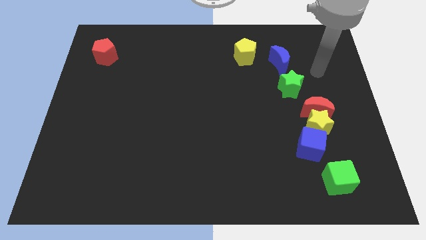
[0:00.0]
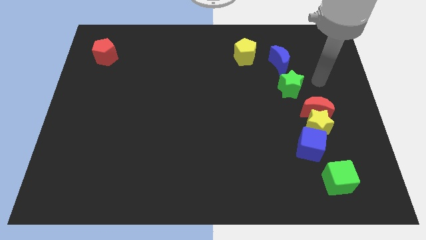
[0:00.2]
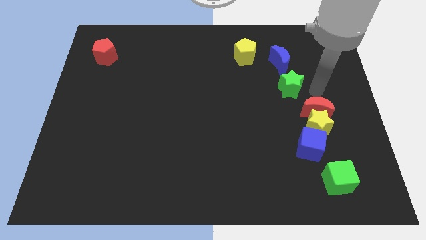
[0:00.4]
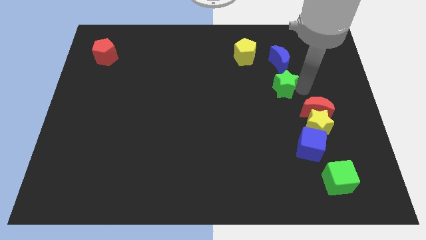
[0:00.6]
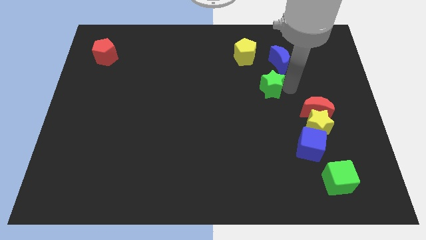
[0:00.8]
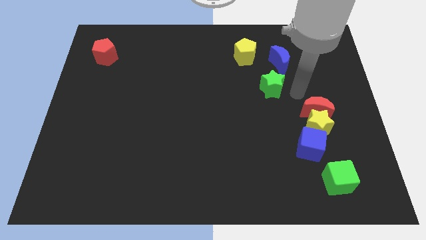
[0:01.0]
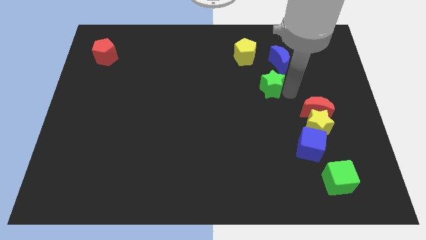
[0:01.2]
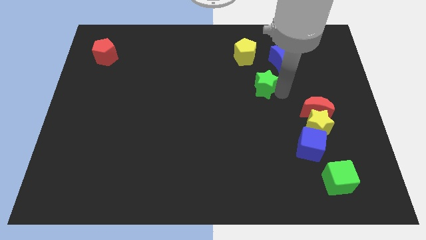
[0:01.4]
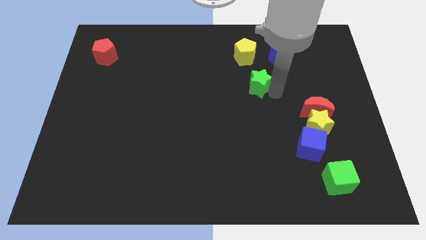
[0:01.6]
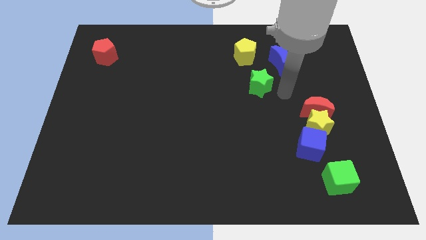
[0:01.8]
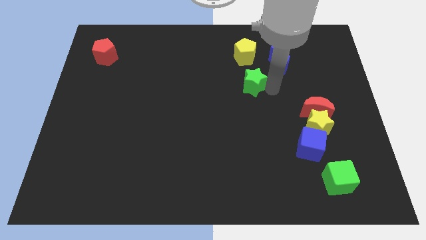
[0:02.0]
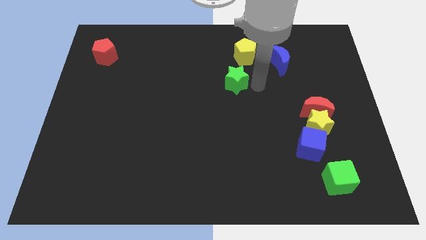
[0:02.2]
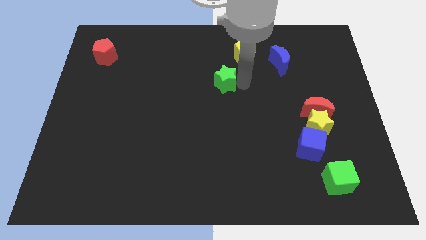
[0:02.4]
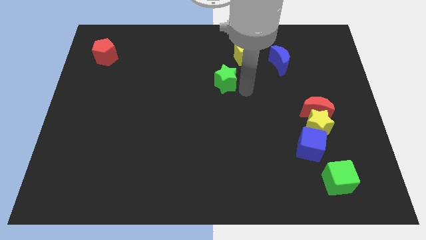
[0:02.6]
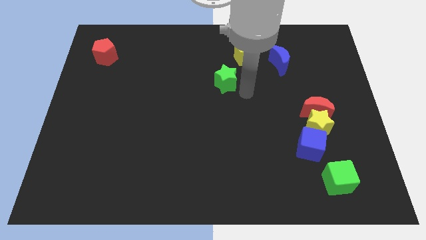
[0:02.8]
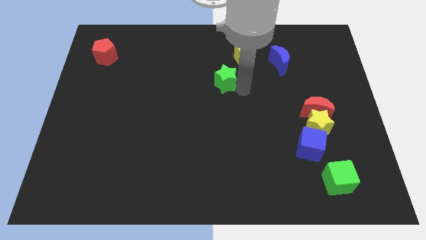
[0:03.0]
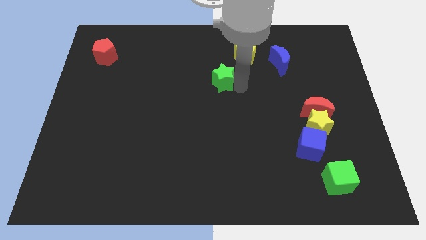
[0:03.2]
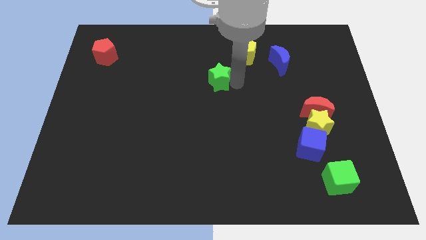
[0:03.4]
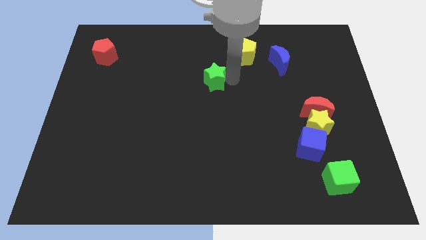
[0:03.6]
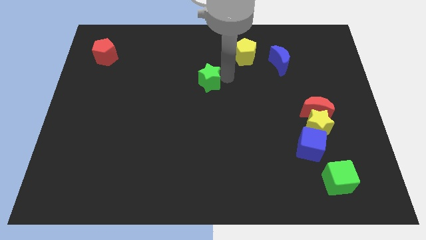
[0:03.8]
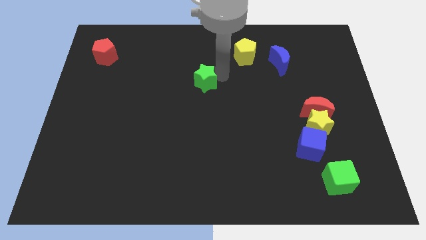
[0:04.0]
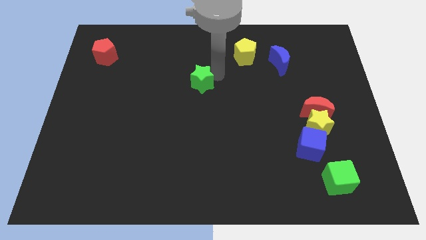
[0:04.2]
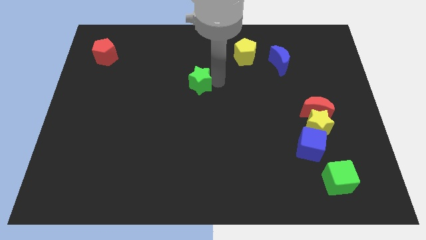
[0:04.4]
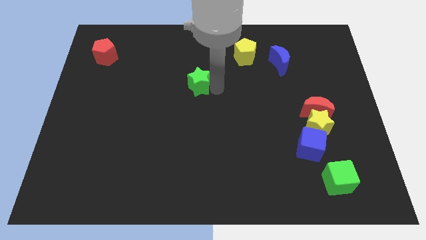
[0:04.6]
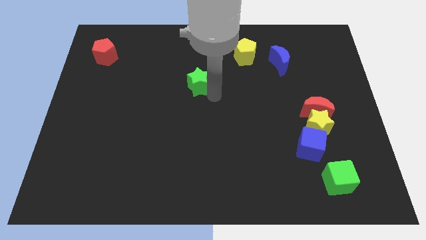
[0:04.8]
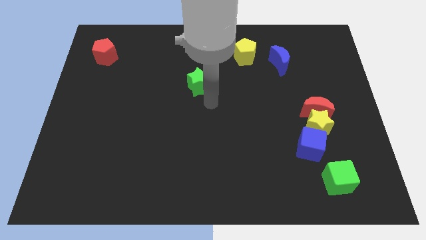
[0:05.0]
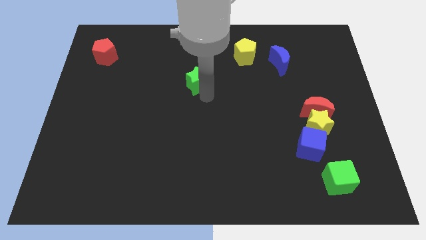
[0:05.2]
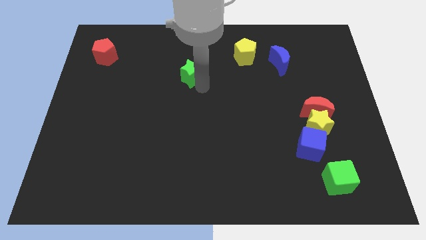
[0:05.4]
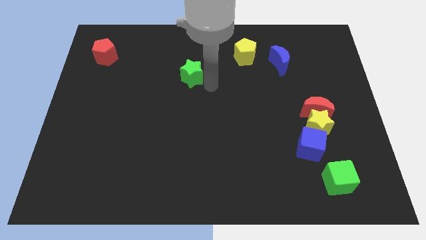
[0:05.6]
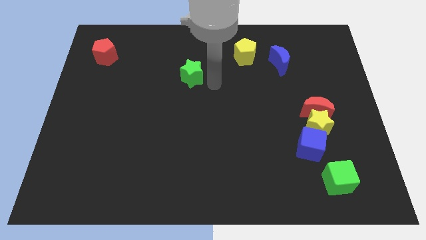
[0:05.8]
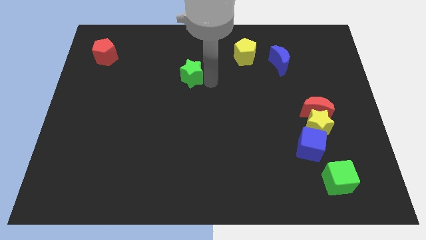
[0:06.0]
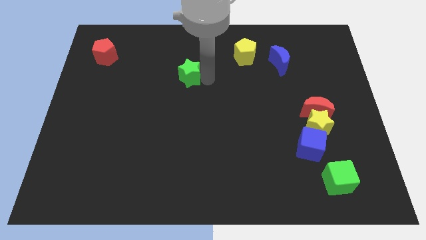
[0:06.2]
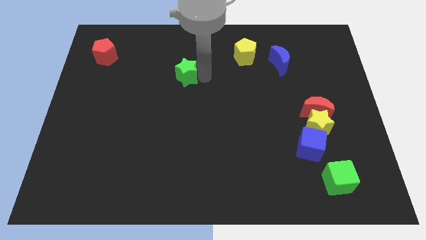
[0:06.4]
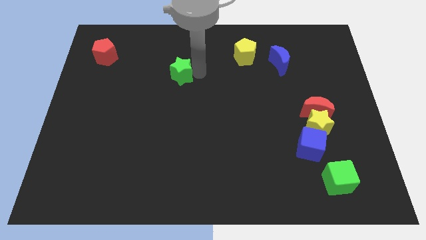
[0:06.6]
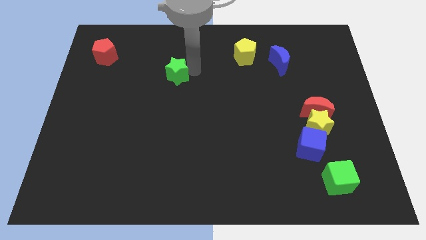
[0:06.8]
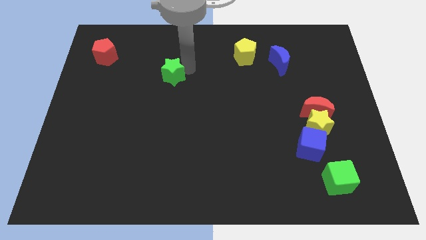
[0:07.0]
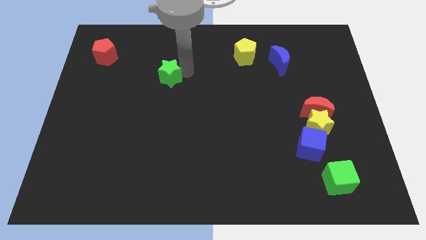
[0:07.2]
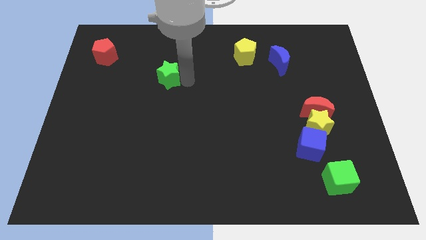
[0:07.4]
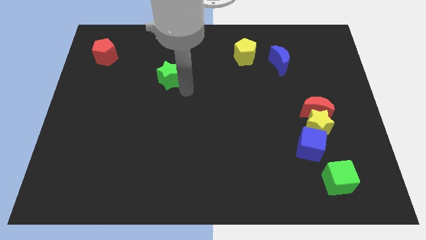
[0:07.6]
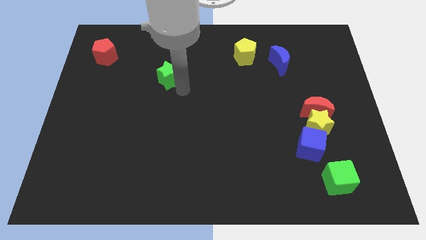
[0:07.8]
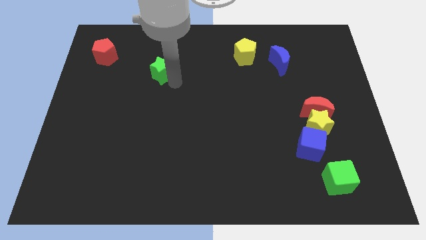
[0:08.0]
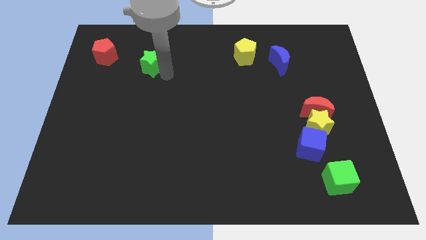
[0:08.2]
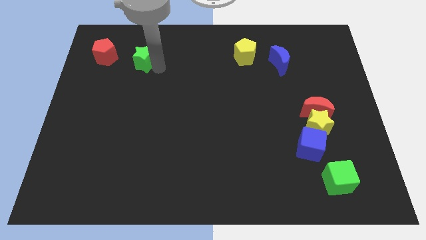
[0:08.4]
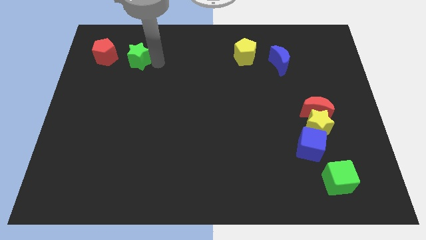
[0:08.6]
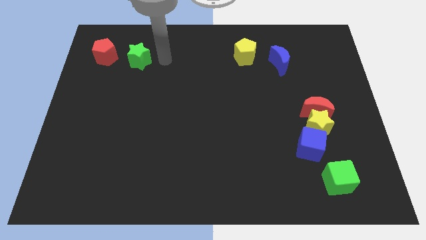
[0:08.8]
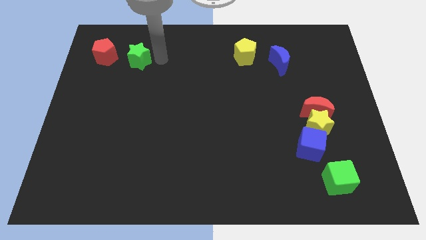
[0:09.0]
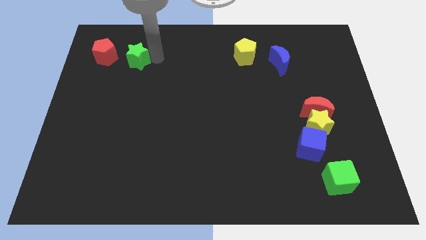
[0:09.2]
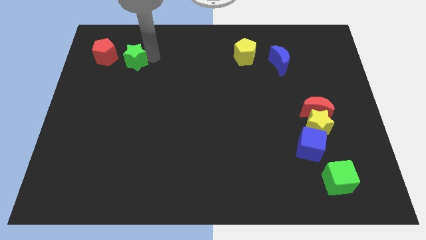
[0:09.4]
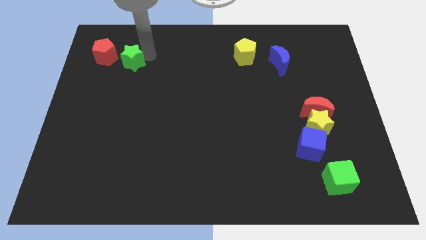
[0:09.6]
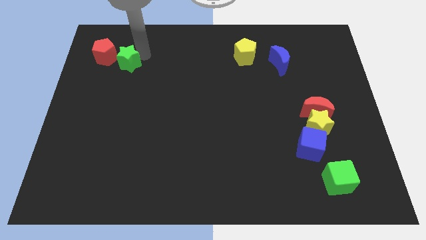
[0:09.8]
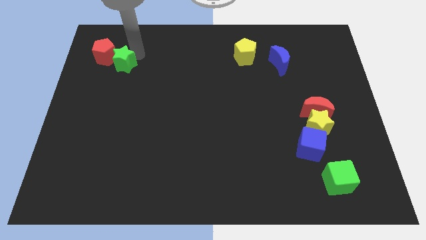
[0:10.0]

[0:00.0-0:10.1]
push the green star to the red pentagon

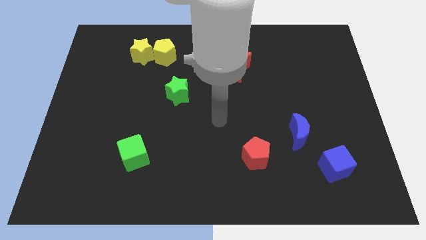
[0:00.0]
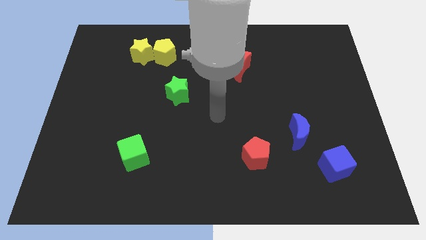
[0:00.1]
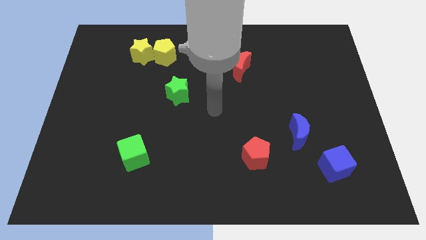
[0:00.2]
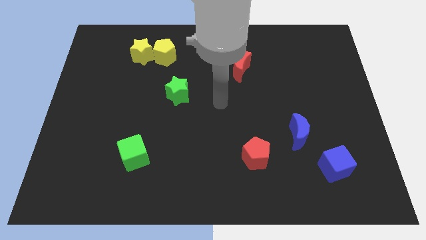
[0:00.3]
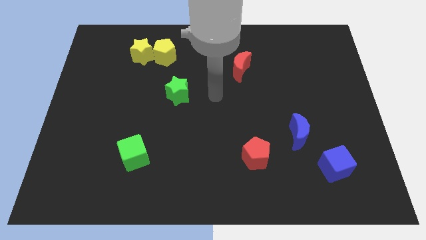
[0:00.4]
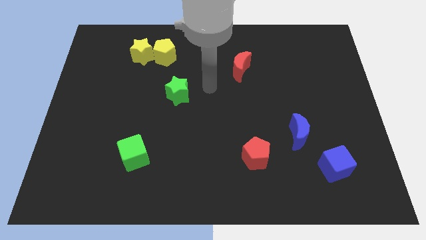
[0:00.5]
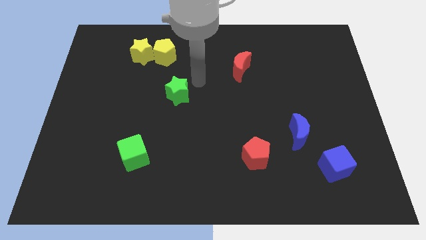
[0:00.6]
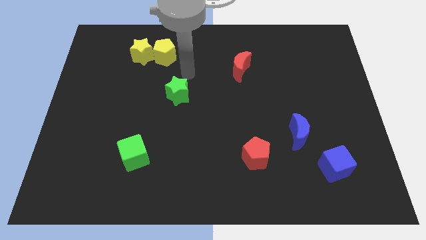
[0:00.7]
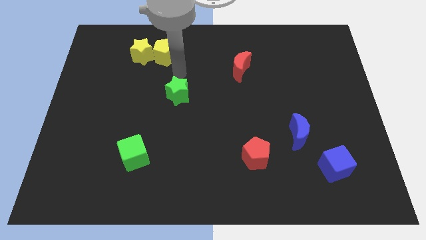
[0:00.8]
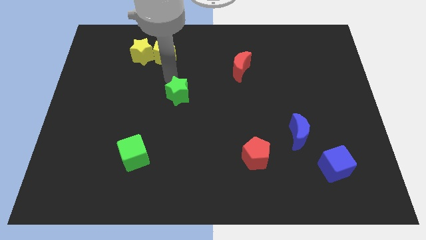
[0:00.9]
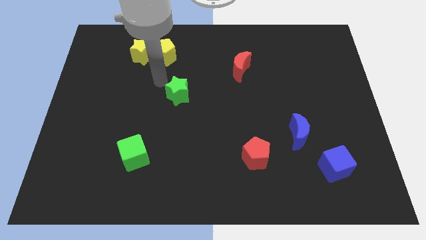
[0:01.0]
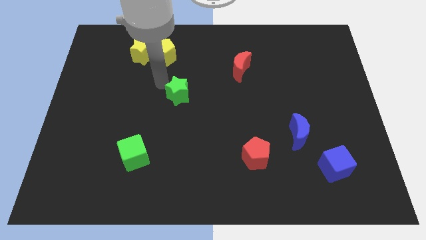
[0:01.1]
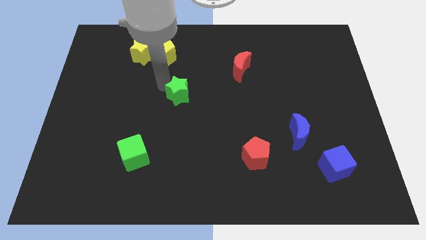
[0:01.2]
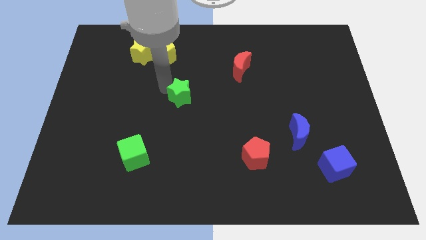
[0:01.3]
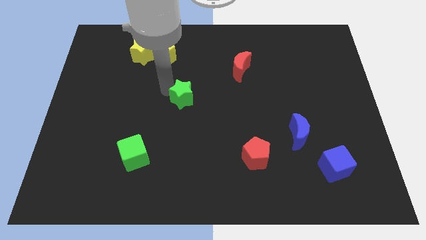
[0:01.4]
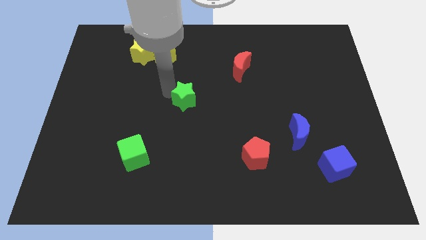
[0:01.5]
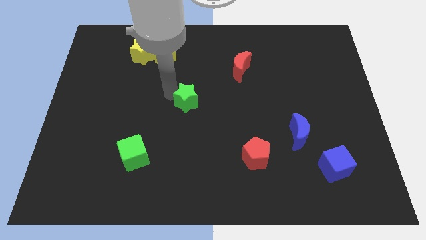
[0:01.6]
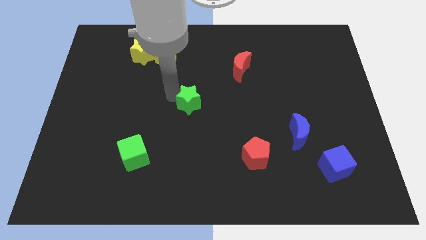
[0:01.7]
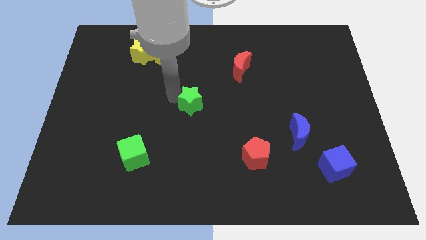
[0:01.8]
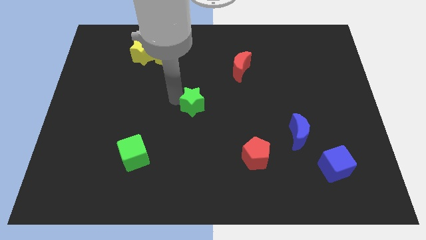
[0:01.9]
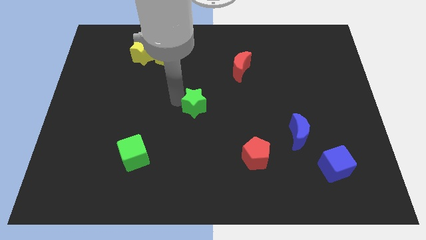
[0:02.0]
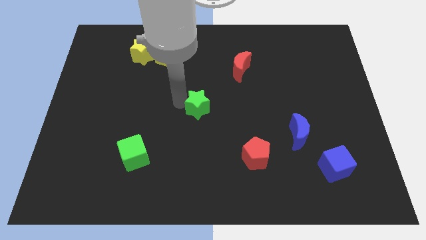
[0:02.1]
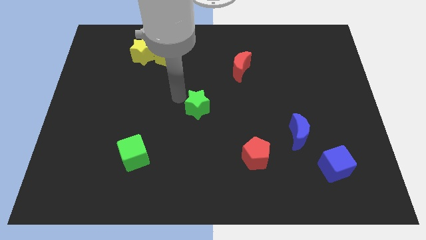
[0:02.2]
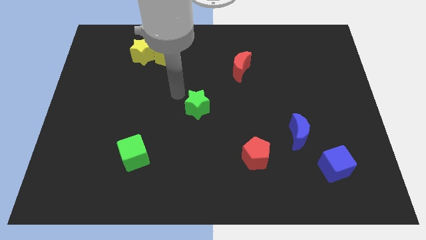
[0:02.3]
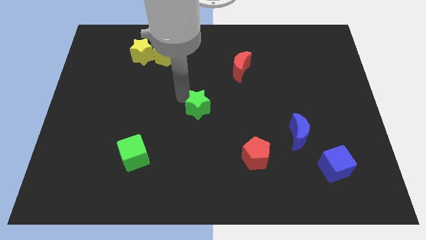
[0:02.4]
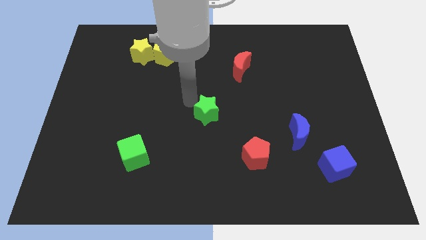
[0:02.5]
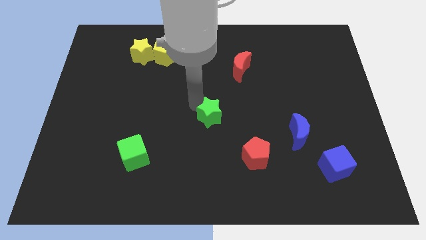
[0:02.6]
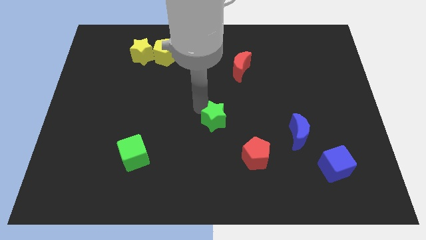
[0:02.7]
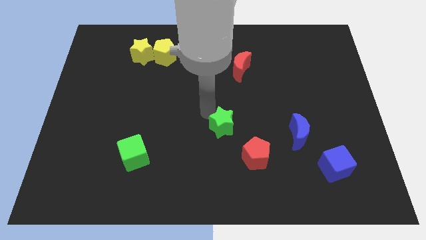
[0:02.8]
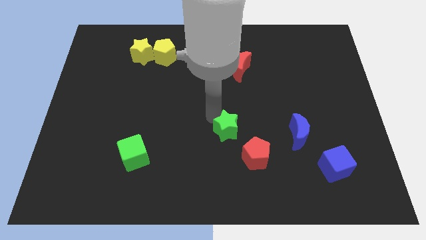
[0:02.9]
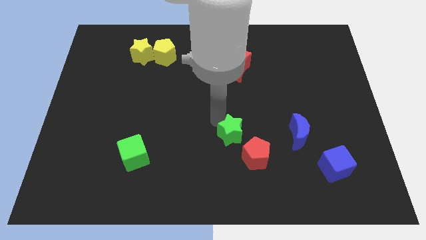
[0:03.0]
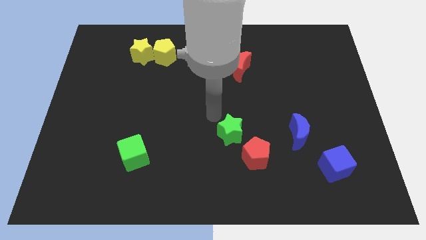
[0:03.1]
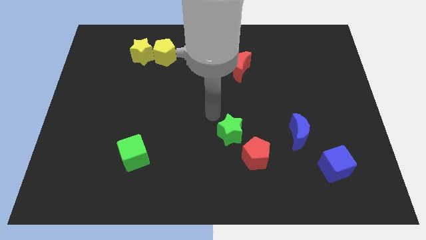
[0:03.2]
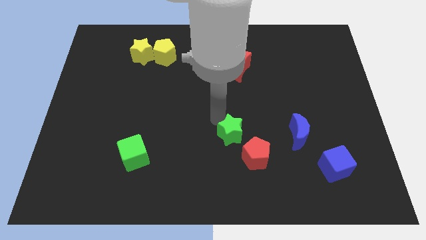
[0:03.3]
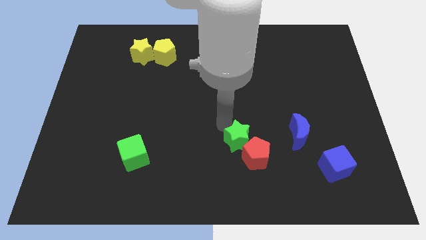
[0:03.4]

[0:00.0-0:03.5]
push the green star close to the red pentagon
